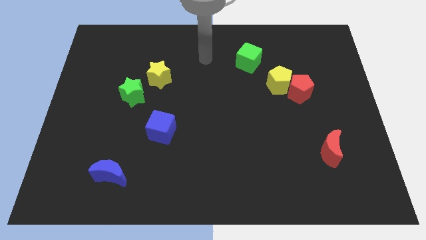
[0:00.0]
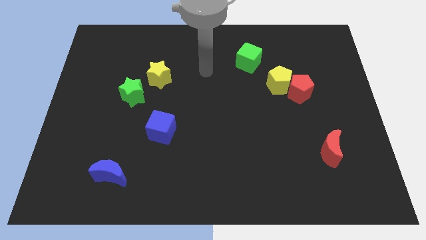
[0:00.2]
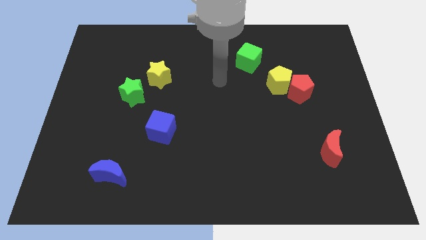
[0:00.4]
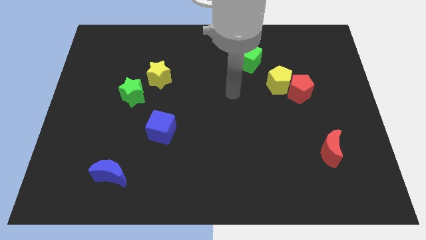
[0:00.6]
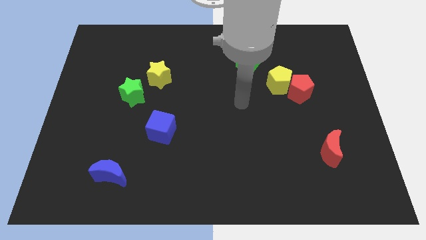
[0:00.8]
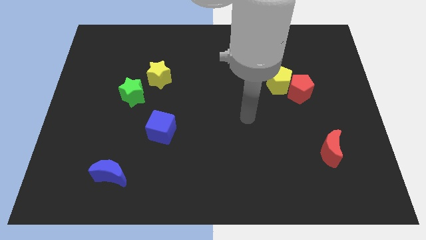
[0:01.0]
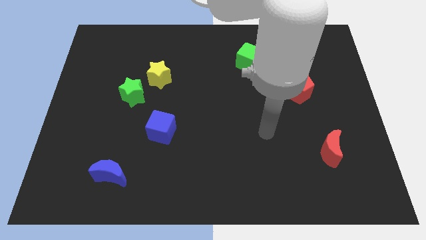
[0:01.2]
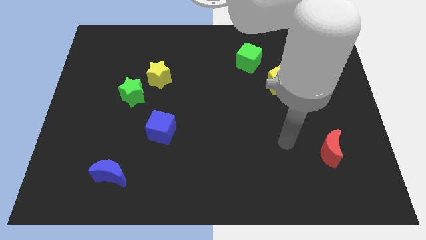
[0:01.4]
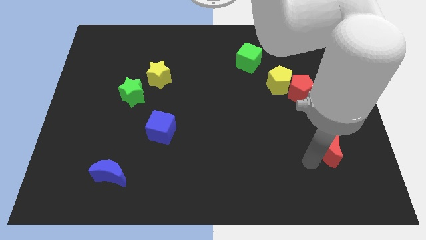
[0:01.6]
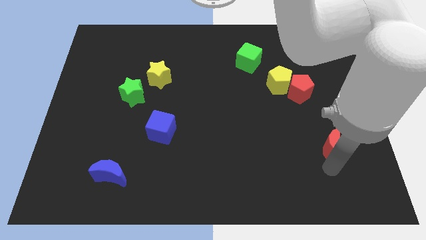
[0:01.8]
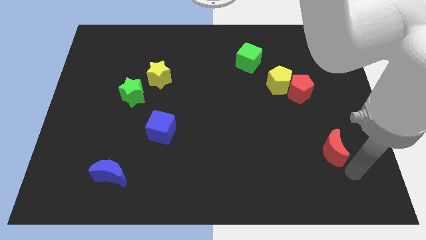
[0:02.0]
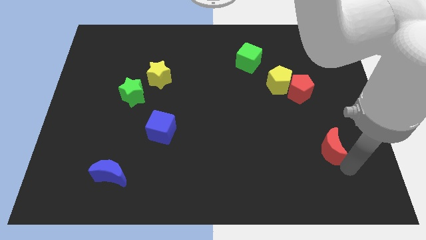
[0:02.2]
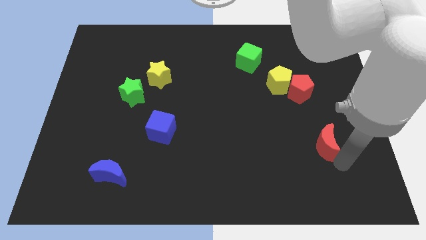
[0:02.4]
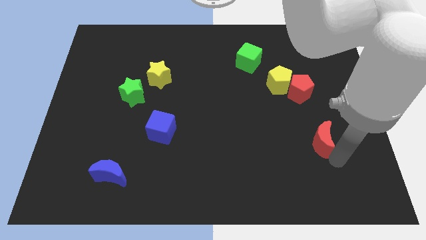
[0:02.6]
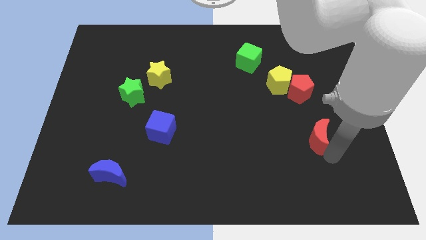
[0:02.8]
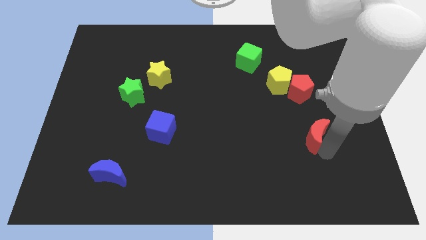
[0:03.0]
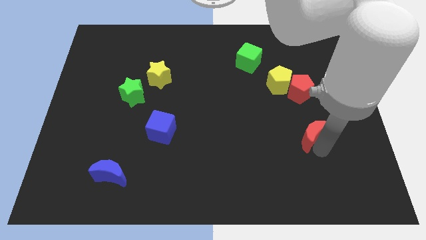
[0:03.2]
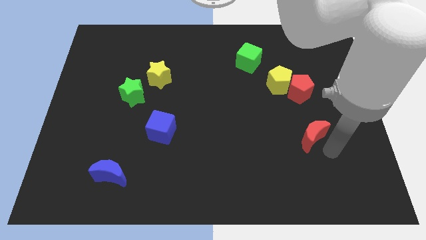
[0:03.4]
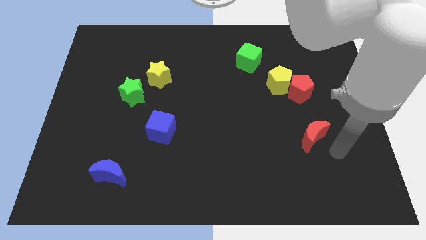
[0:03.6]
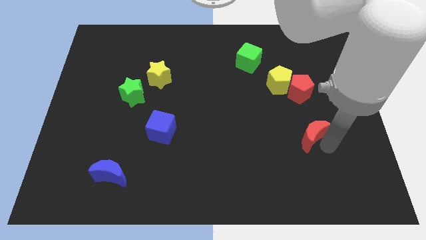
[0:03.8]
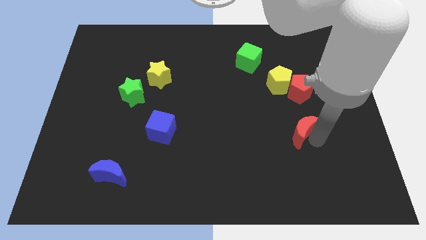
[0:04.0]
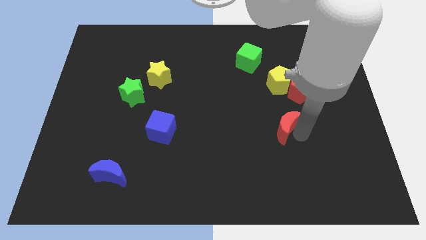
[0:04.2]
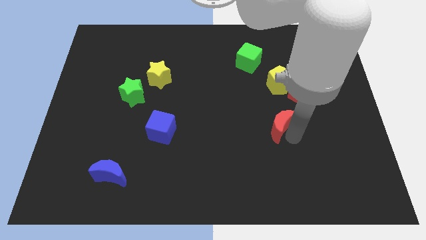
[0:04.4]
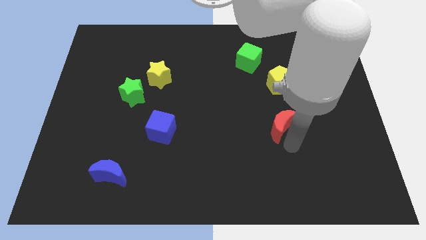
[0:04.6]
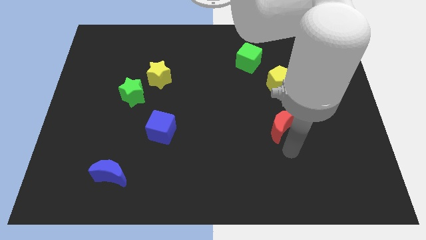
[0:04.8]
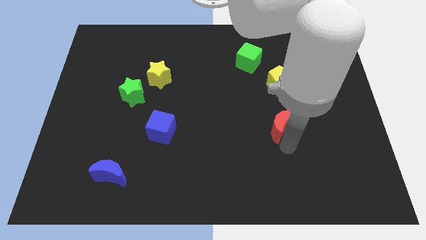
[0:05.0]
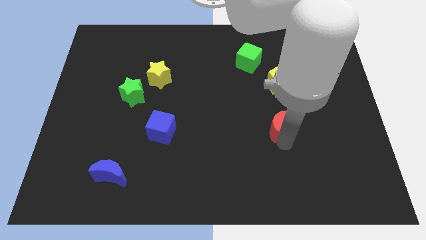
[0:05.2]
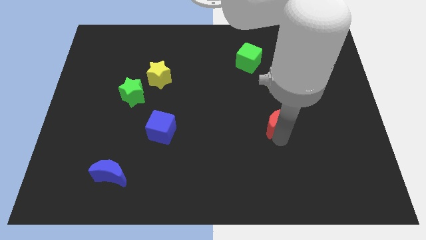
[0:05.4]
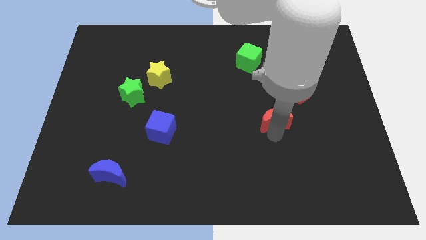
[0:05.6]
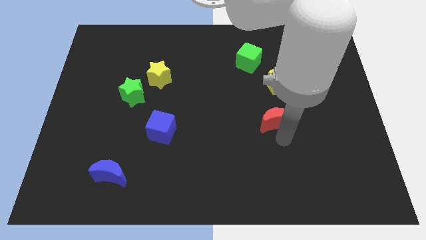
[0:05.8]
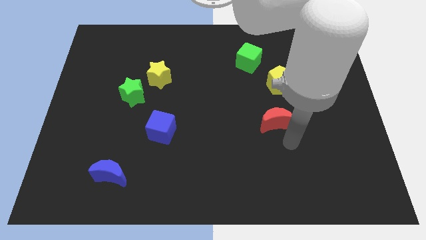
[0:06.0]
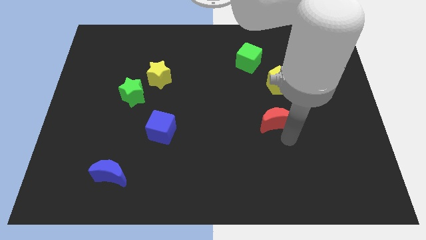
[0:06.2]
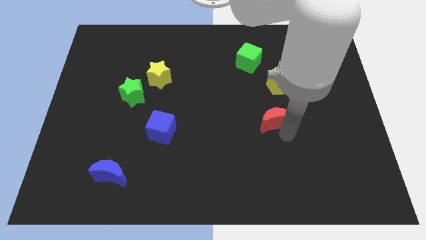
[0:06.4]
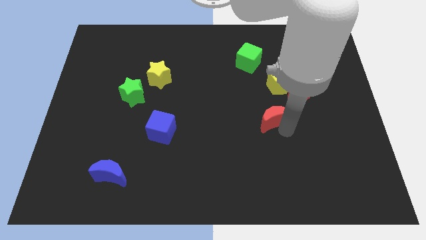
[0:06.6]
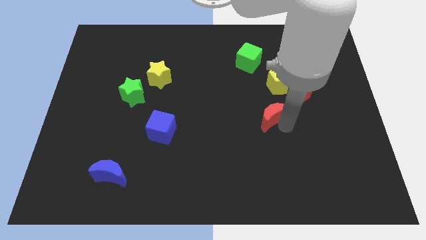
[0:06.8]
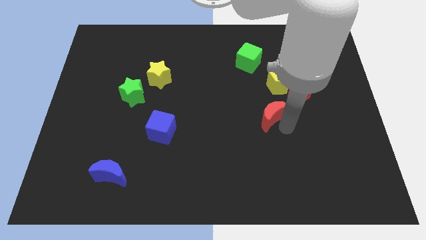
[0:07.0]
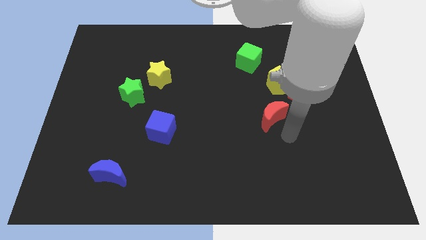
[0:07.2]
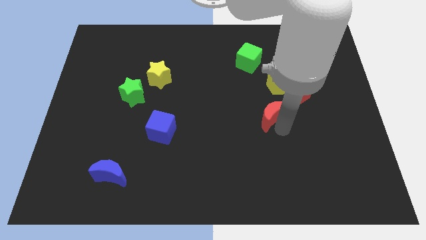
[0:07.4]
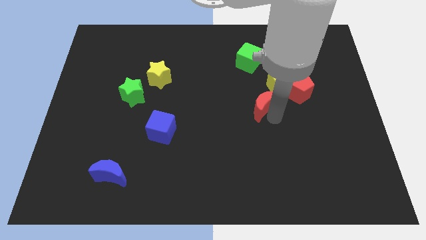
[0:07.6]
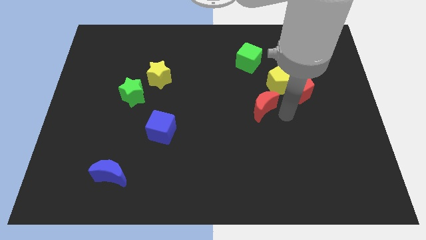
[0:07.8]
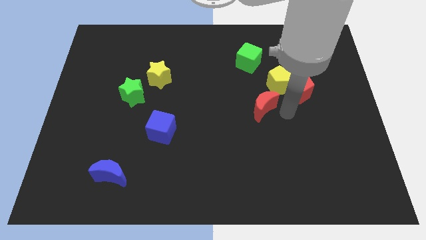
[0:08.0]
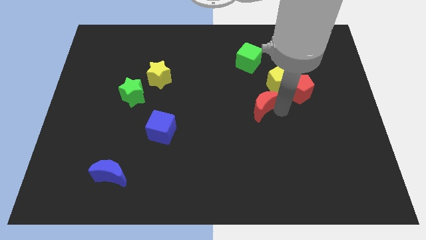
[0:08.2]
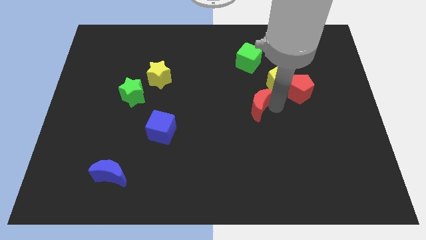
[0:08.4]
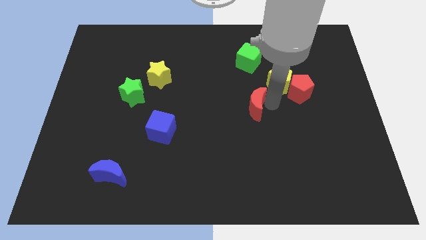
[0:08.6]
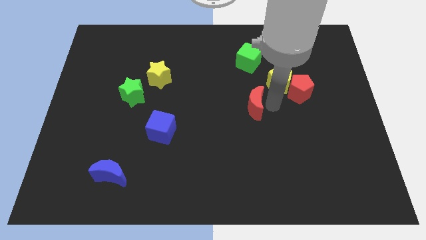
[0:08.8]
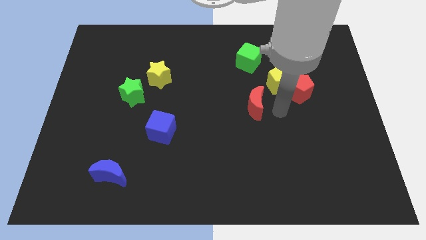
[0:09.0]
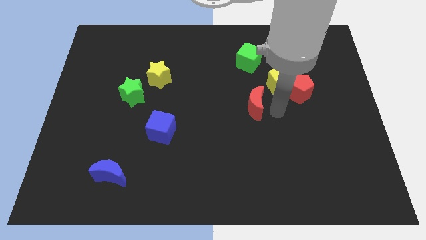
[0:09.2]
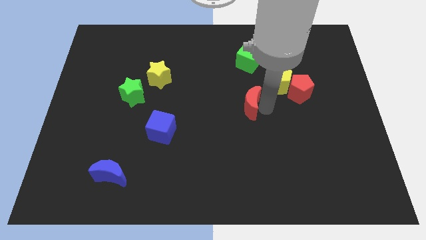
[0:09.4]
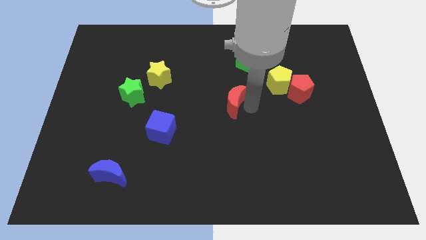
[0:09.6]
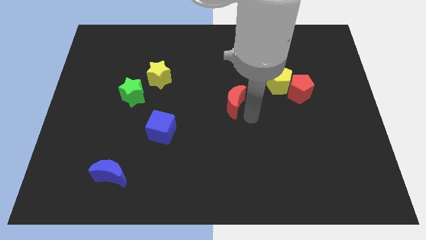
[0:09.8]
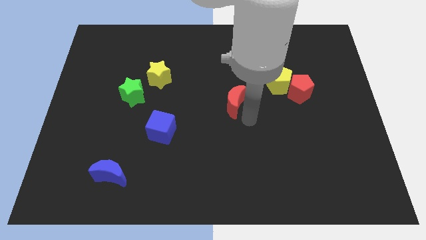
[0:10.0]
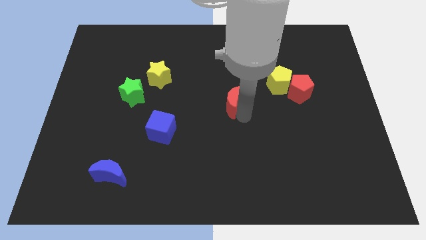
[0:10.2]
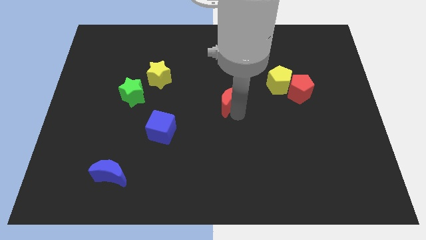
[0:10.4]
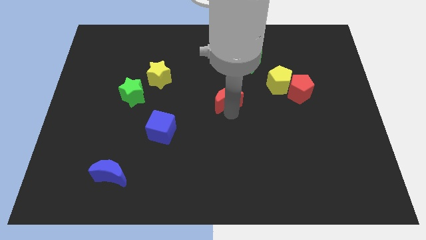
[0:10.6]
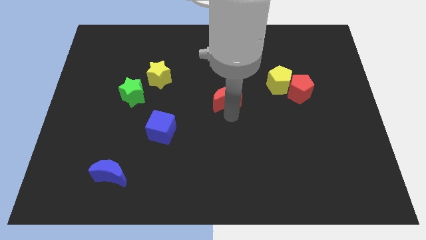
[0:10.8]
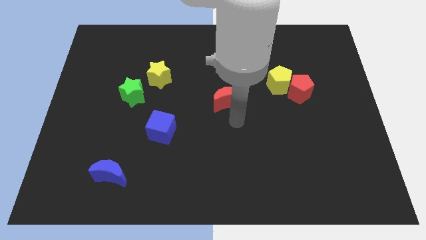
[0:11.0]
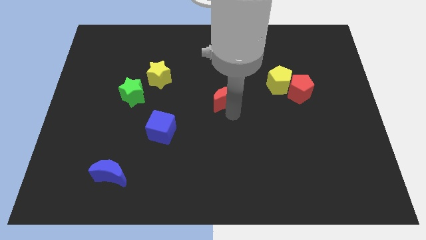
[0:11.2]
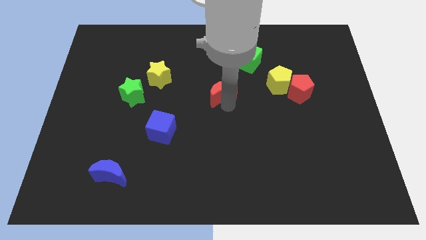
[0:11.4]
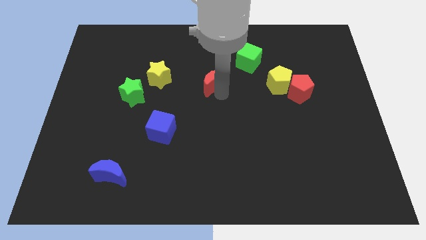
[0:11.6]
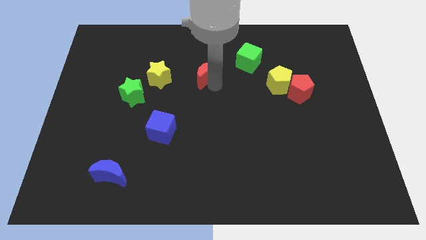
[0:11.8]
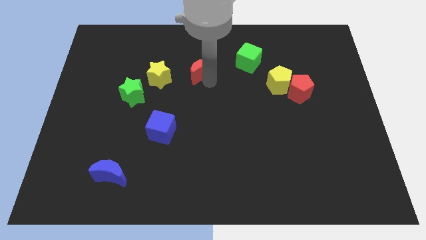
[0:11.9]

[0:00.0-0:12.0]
move the red moon just left of the green cube

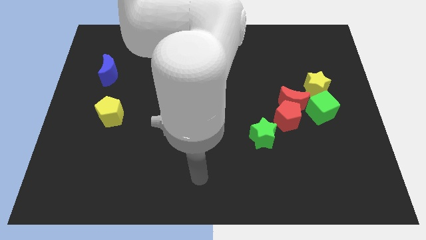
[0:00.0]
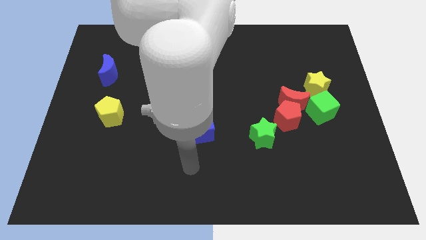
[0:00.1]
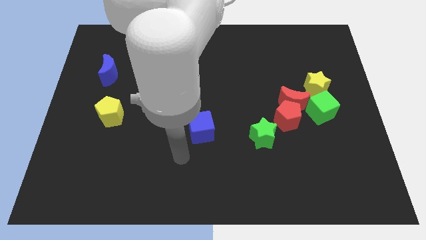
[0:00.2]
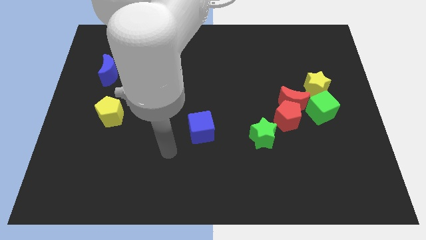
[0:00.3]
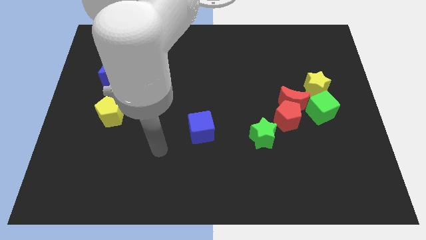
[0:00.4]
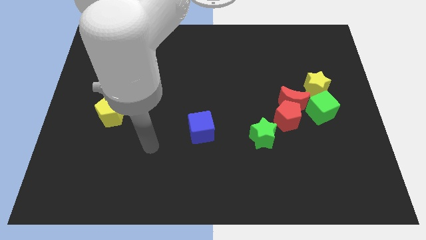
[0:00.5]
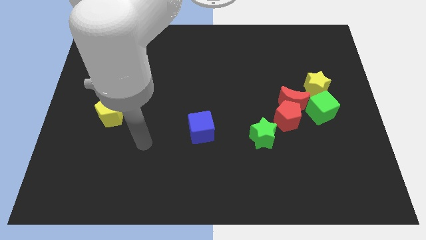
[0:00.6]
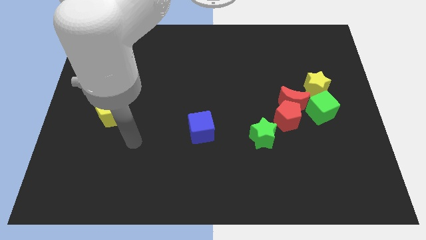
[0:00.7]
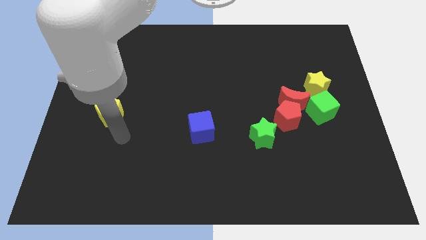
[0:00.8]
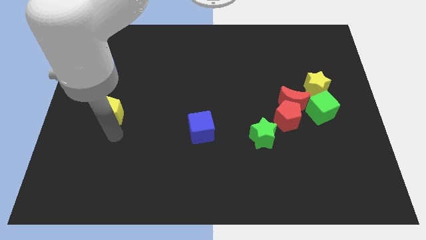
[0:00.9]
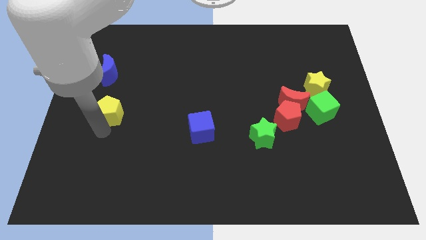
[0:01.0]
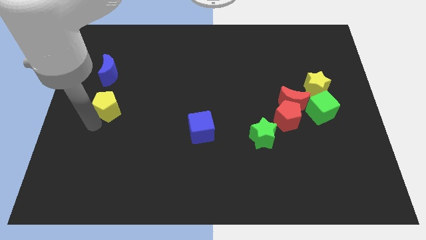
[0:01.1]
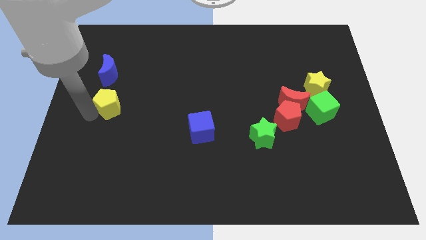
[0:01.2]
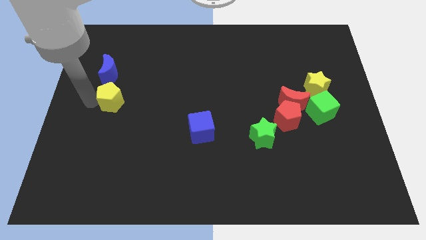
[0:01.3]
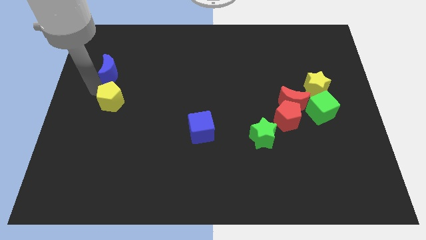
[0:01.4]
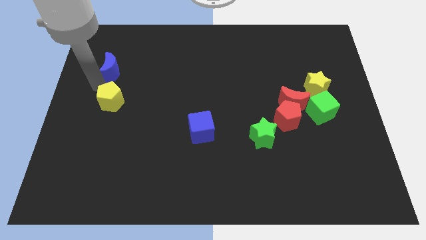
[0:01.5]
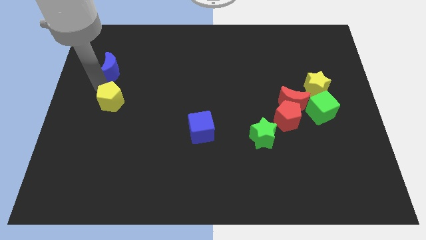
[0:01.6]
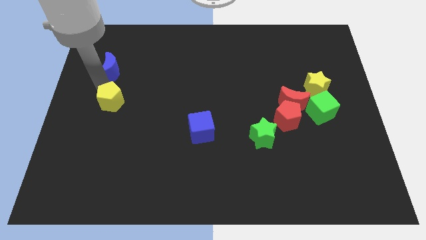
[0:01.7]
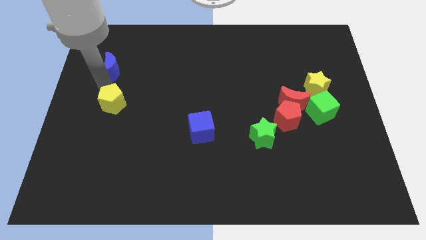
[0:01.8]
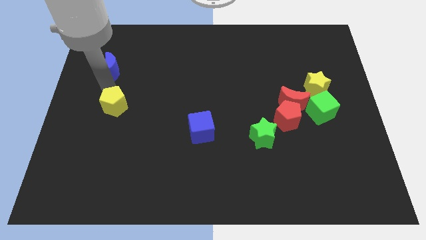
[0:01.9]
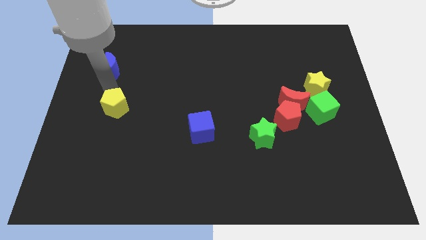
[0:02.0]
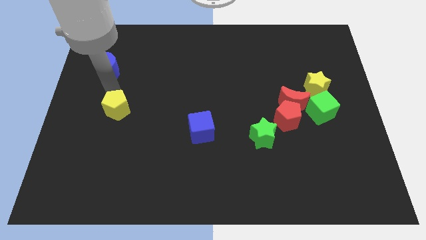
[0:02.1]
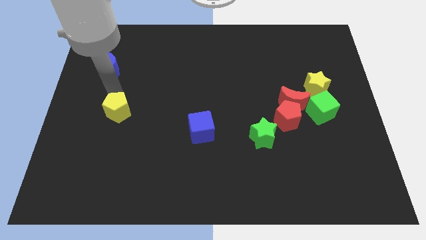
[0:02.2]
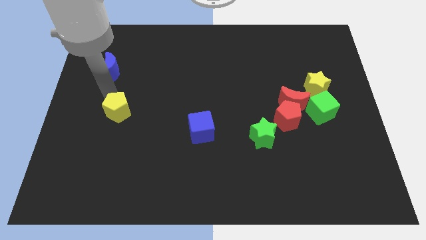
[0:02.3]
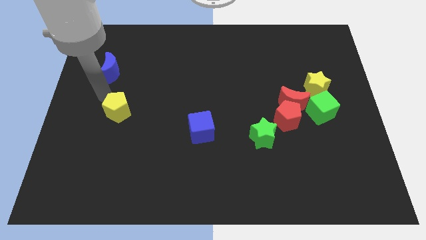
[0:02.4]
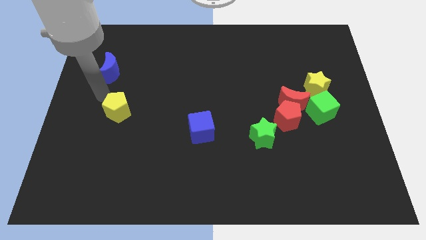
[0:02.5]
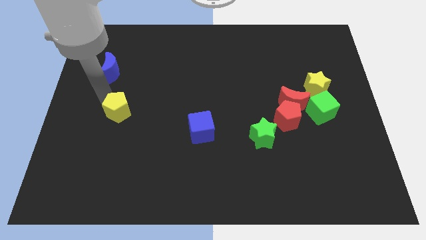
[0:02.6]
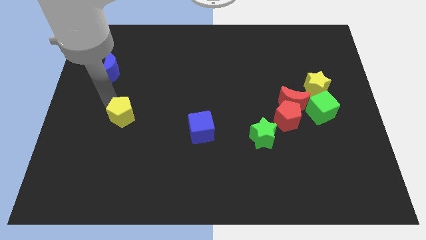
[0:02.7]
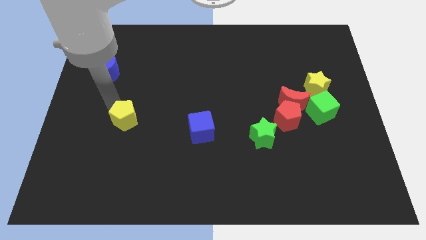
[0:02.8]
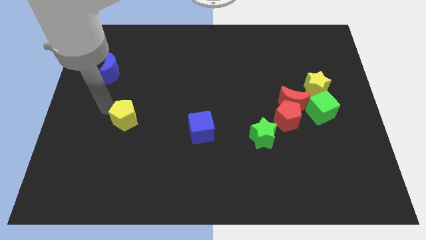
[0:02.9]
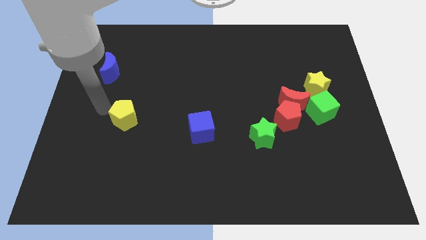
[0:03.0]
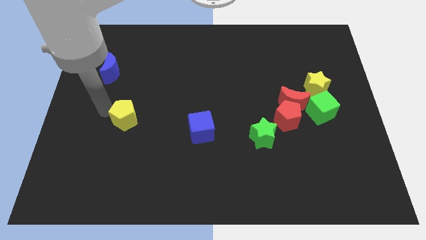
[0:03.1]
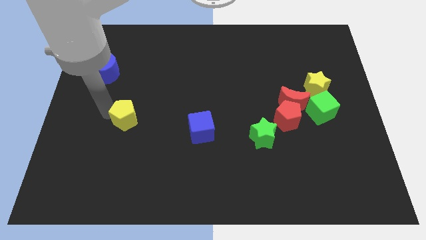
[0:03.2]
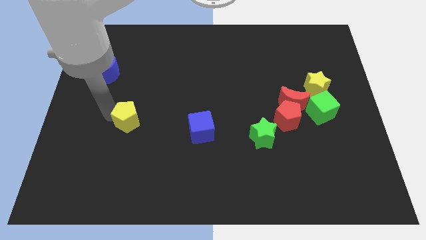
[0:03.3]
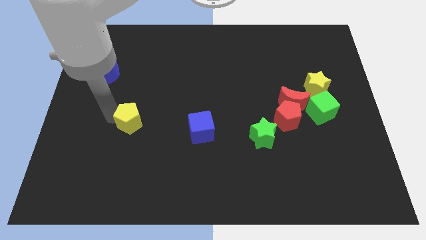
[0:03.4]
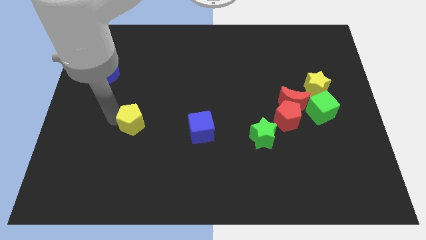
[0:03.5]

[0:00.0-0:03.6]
slide the yellow pentagon to the left of the blue cube
